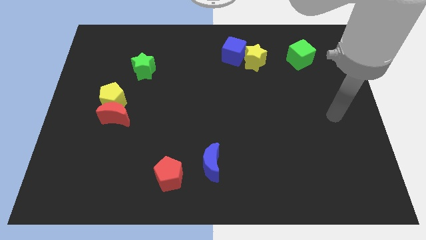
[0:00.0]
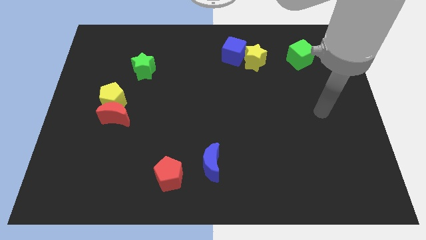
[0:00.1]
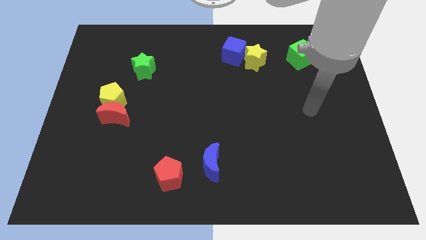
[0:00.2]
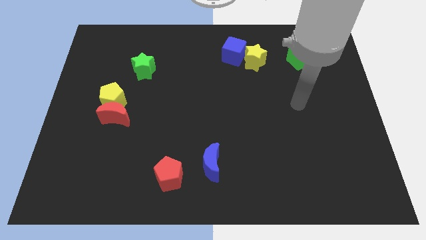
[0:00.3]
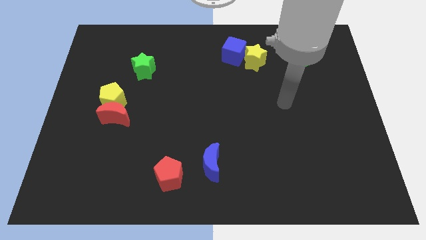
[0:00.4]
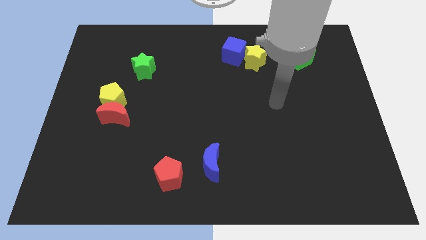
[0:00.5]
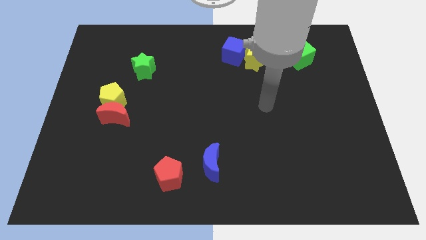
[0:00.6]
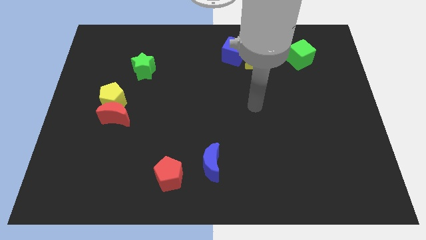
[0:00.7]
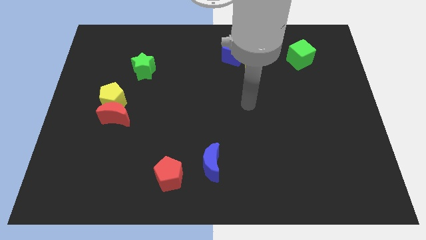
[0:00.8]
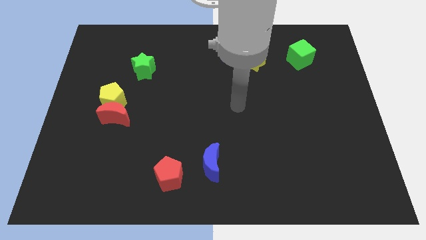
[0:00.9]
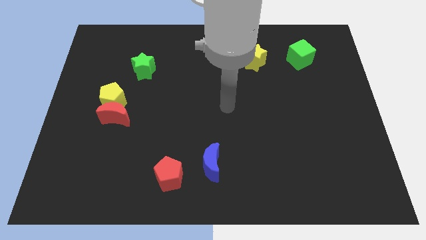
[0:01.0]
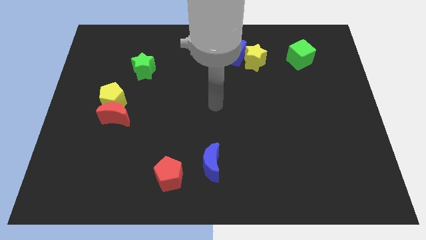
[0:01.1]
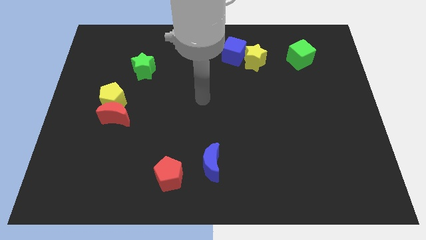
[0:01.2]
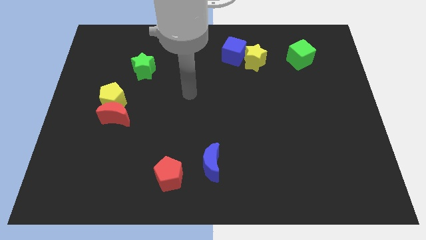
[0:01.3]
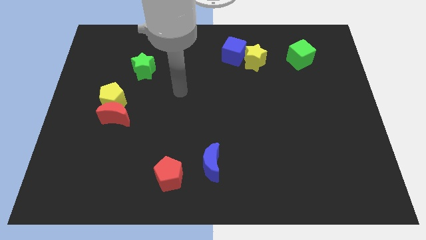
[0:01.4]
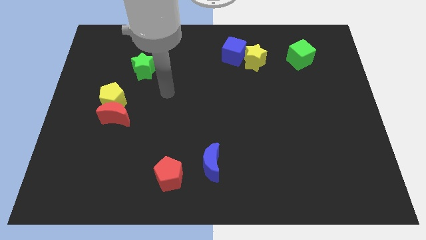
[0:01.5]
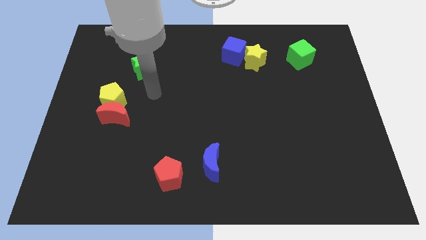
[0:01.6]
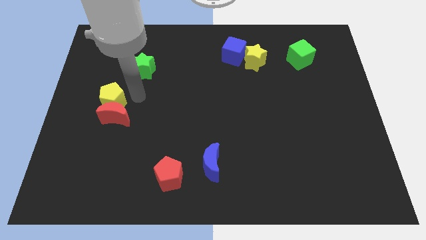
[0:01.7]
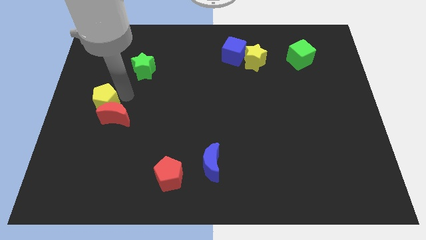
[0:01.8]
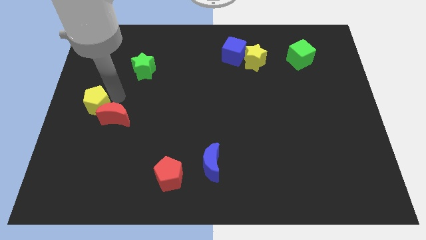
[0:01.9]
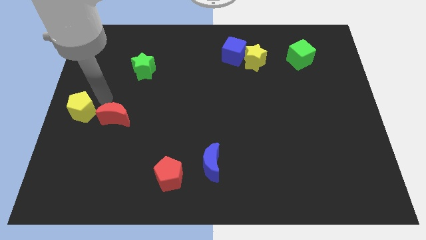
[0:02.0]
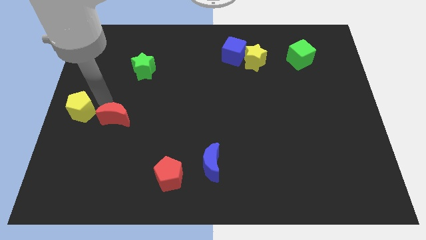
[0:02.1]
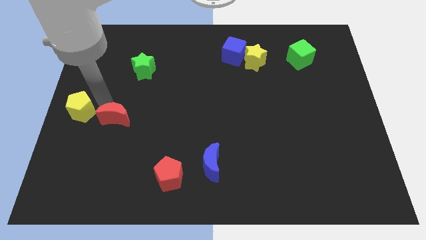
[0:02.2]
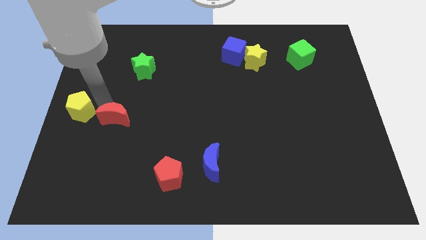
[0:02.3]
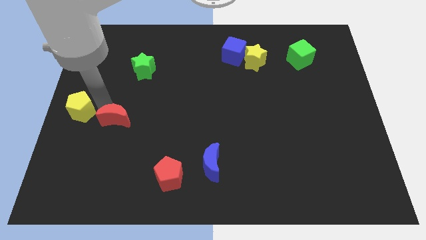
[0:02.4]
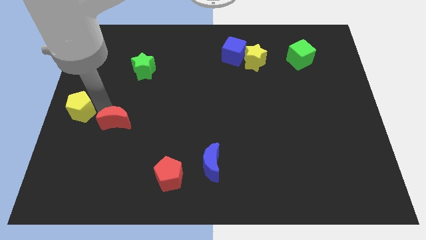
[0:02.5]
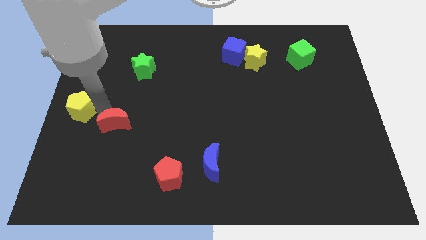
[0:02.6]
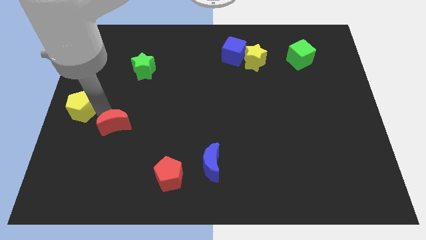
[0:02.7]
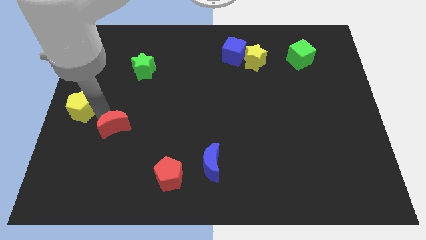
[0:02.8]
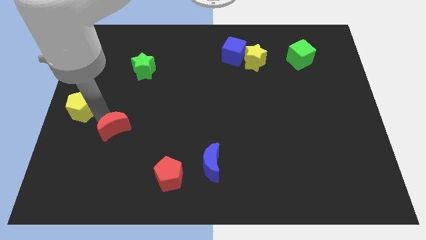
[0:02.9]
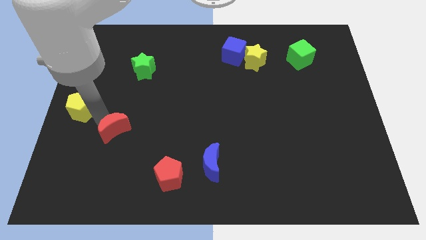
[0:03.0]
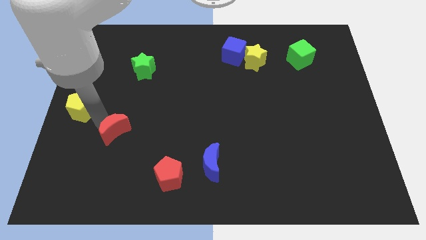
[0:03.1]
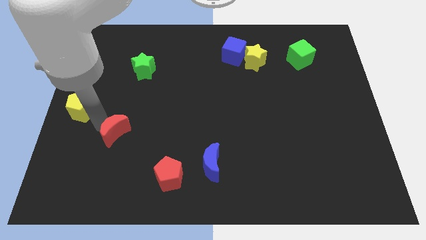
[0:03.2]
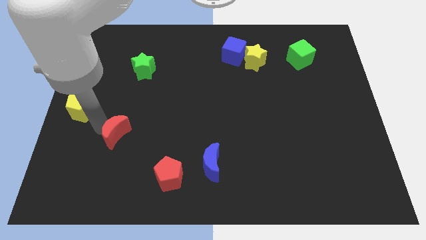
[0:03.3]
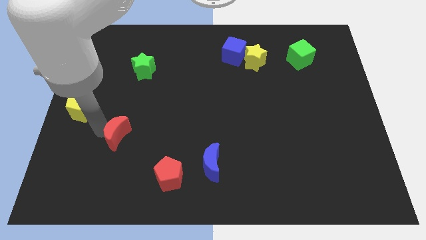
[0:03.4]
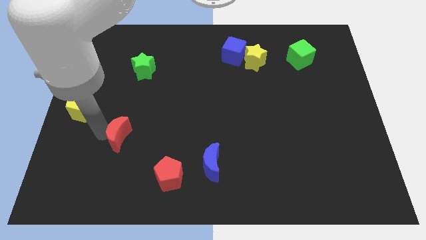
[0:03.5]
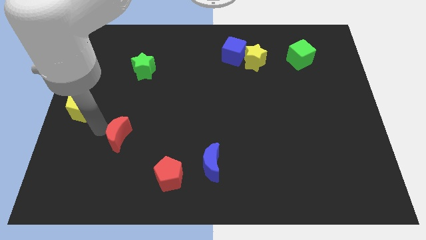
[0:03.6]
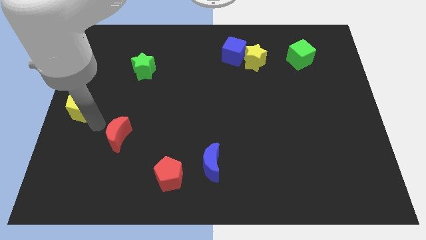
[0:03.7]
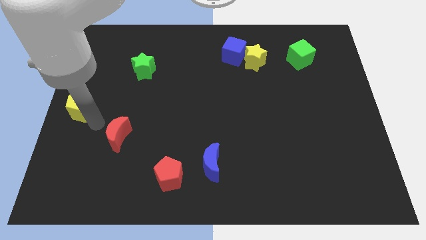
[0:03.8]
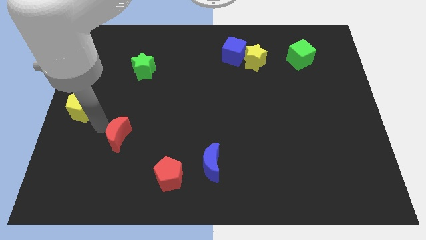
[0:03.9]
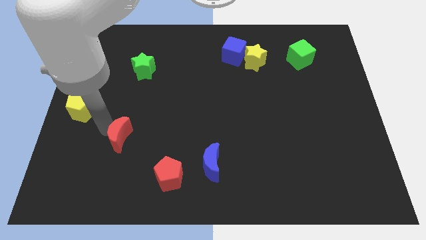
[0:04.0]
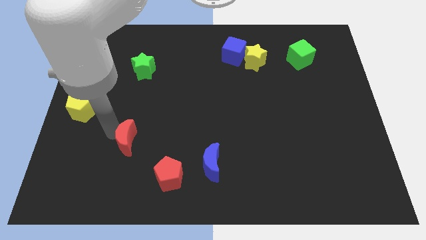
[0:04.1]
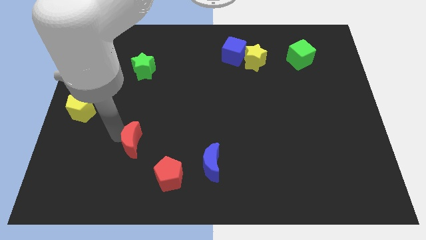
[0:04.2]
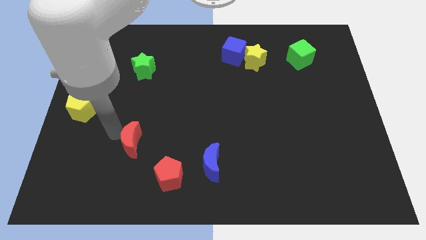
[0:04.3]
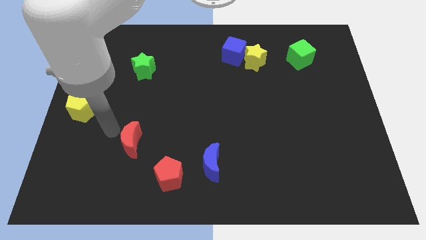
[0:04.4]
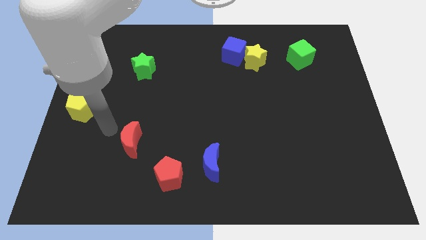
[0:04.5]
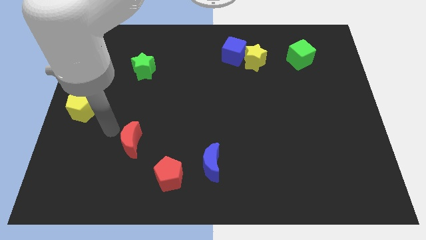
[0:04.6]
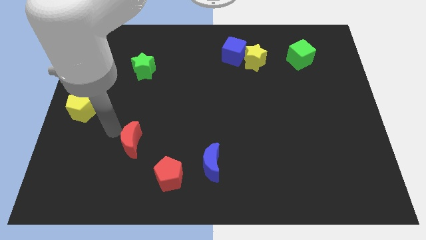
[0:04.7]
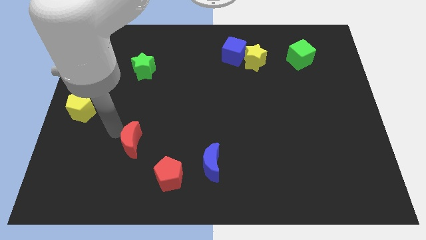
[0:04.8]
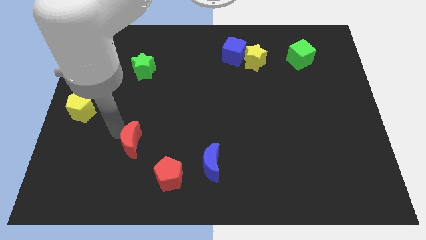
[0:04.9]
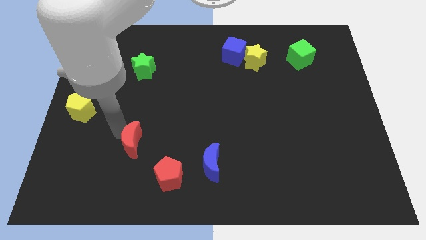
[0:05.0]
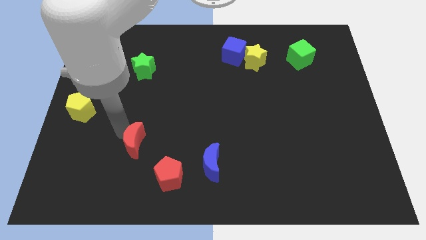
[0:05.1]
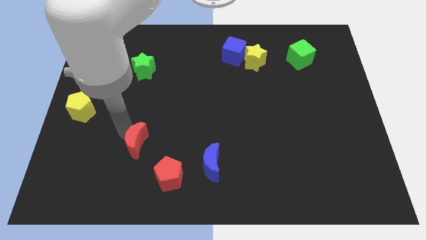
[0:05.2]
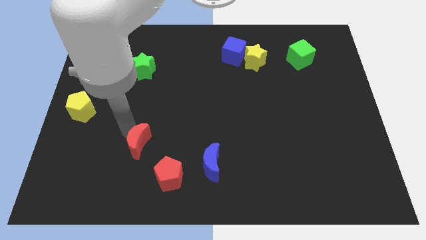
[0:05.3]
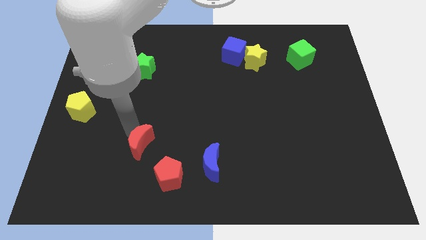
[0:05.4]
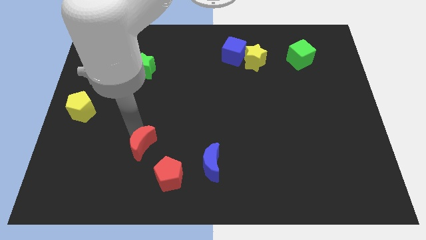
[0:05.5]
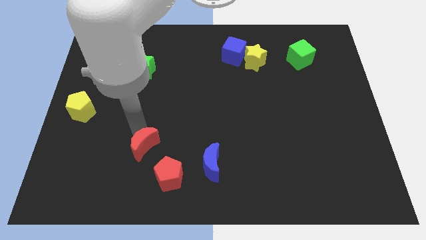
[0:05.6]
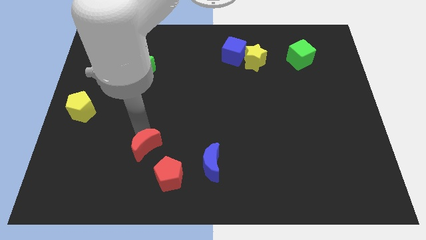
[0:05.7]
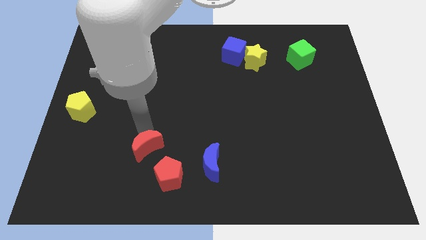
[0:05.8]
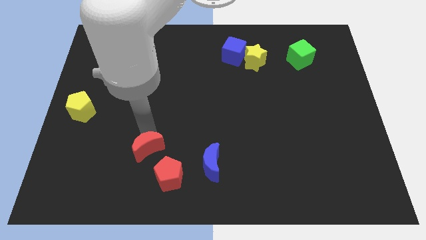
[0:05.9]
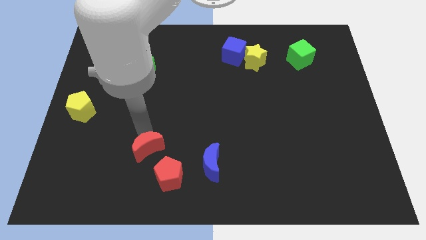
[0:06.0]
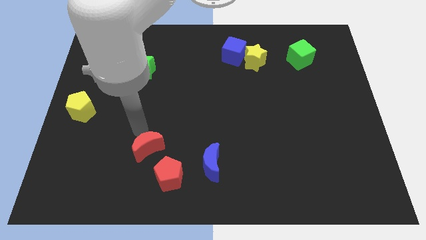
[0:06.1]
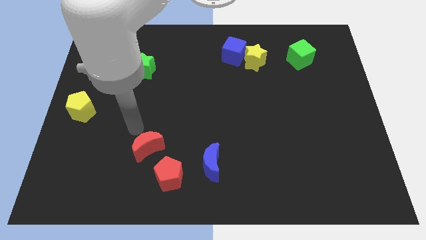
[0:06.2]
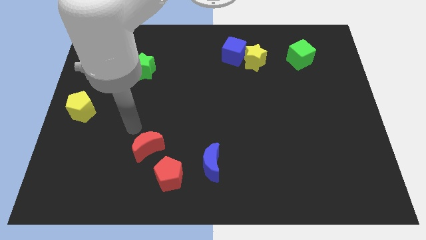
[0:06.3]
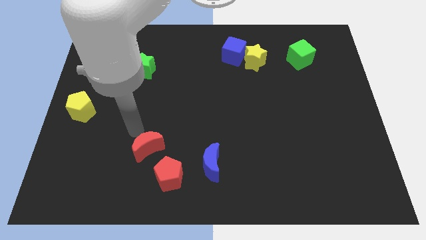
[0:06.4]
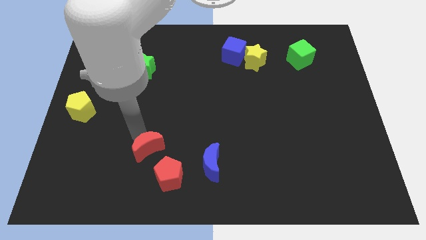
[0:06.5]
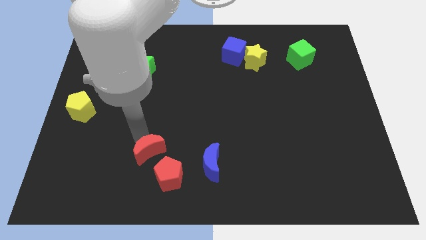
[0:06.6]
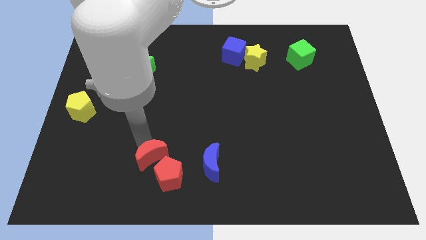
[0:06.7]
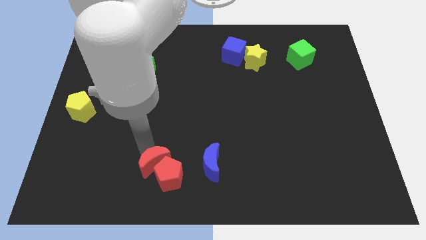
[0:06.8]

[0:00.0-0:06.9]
slide the red moon close to the red pentagon

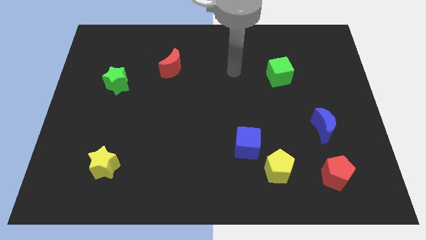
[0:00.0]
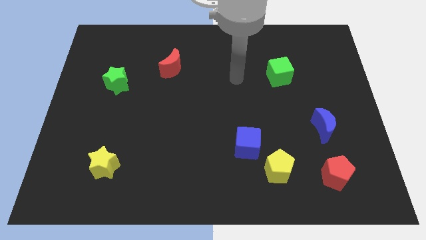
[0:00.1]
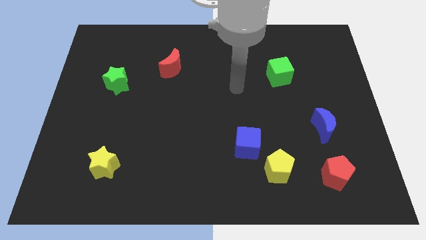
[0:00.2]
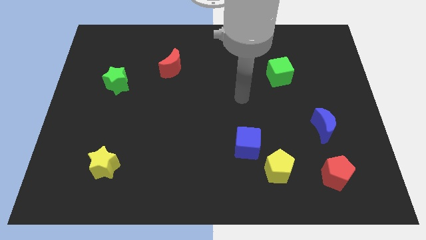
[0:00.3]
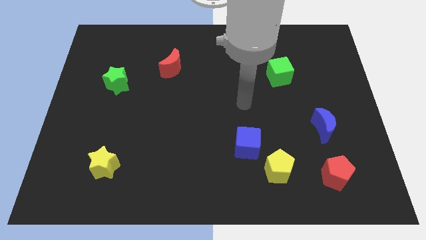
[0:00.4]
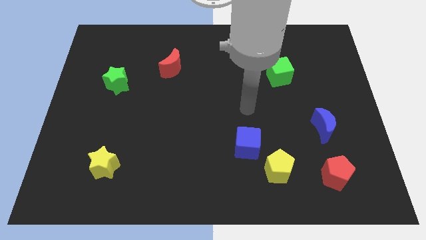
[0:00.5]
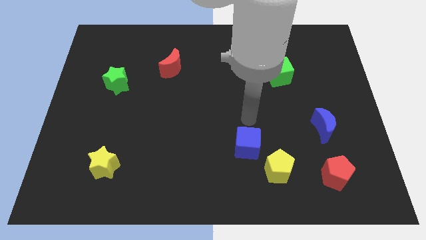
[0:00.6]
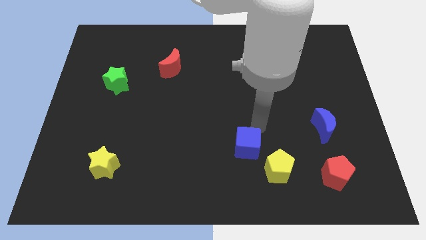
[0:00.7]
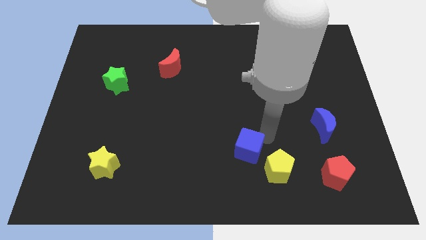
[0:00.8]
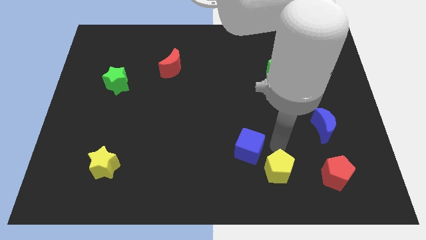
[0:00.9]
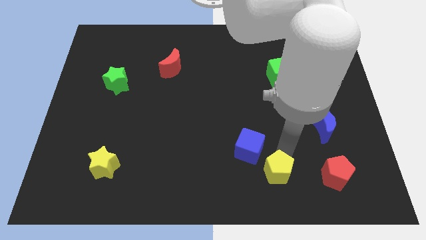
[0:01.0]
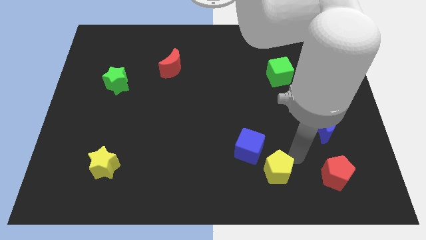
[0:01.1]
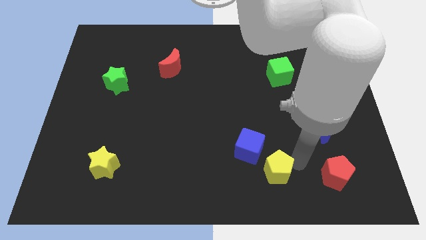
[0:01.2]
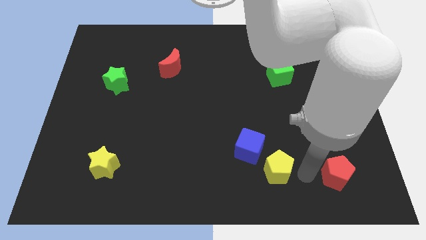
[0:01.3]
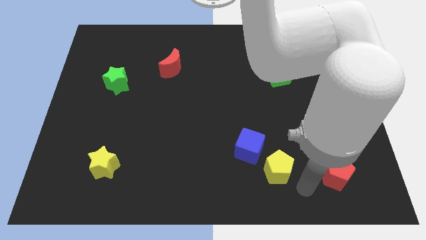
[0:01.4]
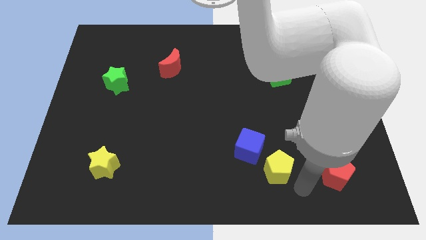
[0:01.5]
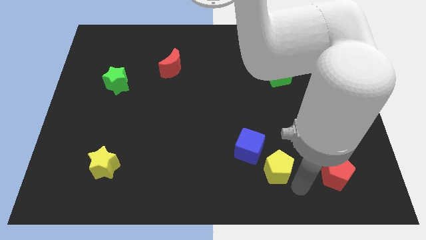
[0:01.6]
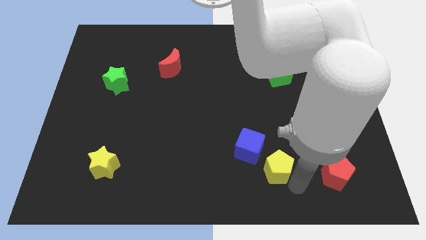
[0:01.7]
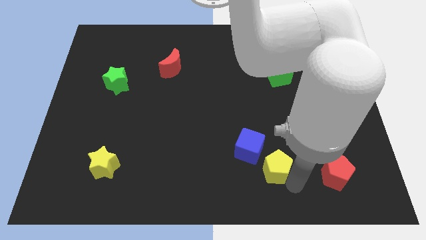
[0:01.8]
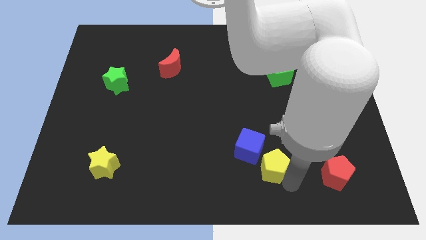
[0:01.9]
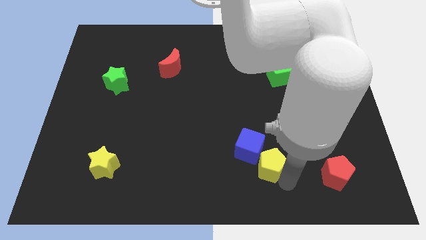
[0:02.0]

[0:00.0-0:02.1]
push the yellow pentagon close to the blue cube
